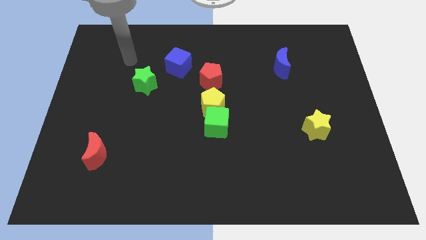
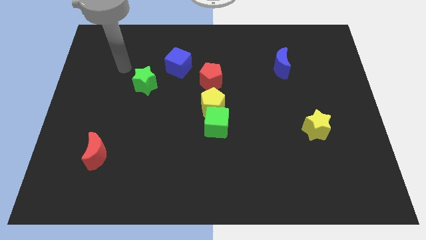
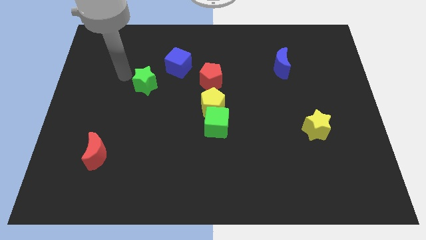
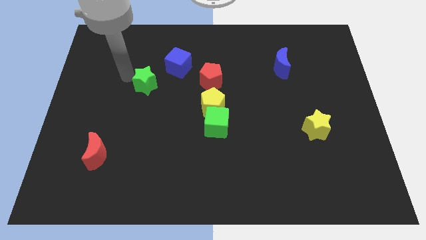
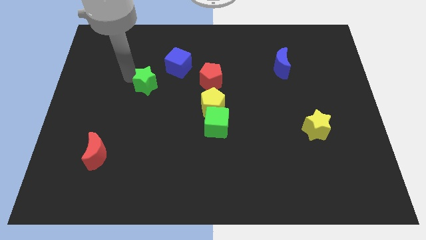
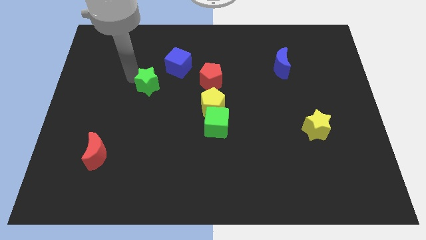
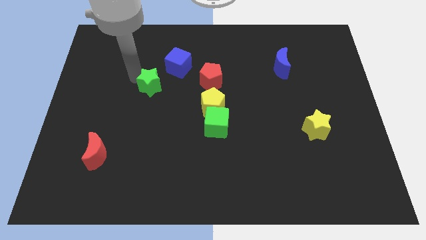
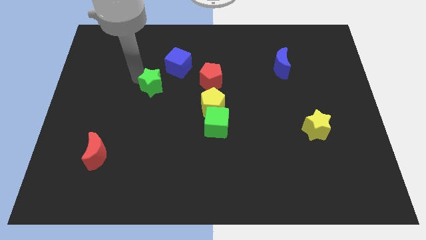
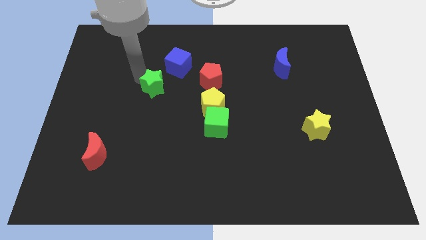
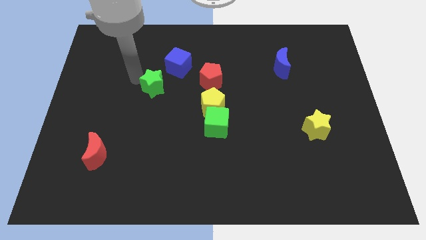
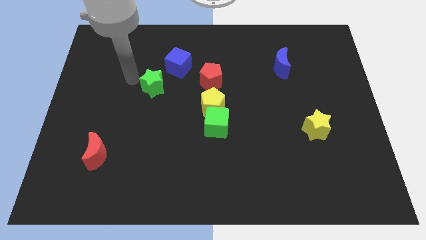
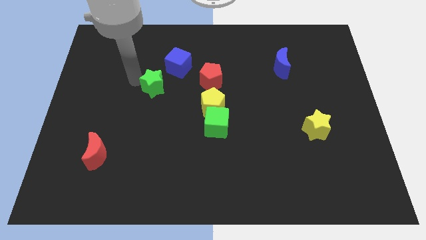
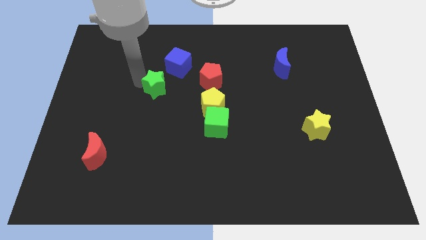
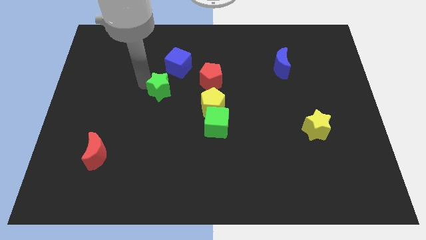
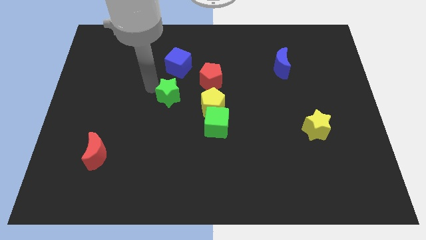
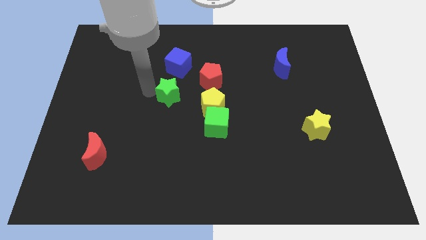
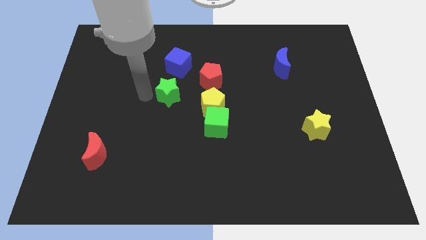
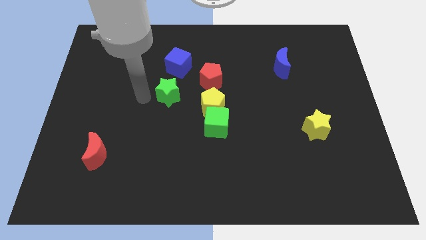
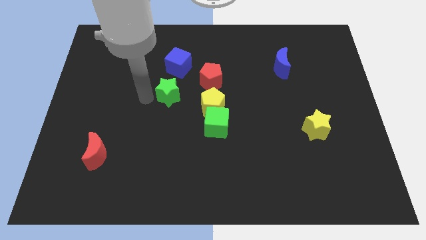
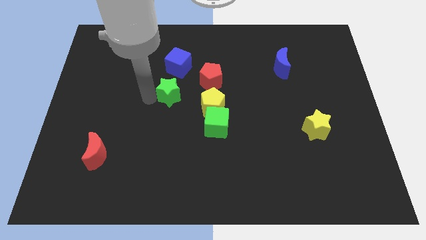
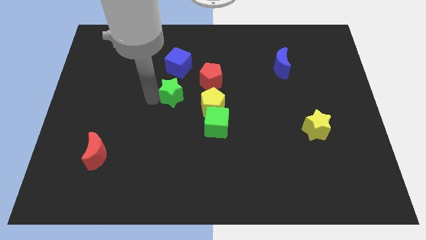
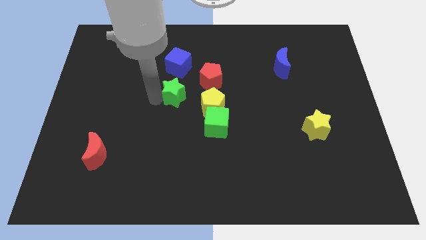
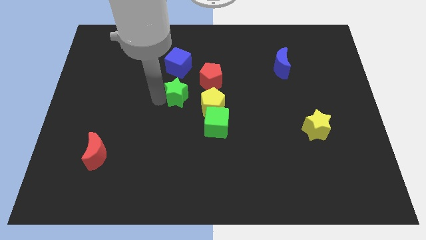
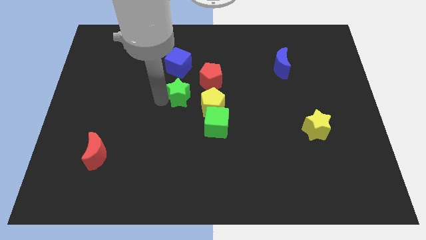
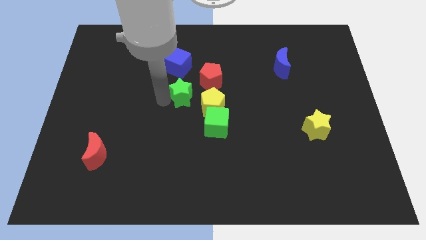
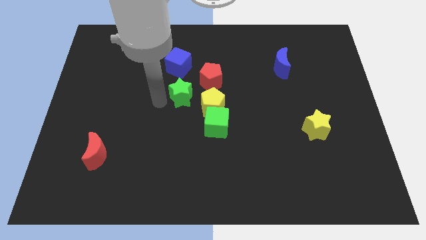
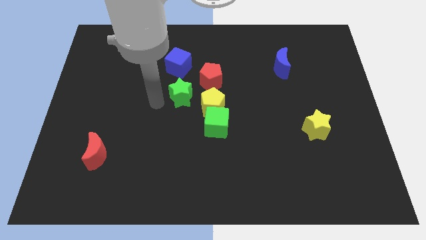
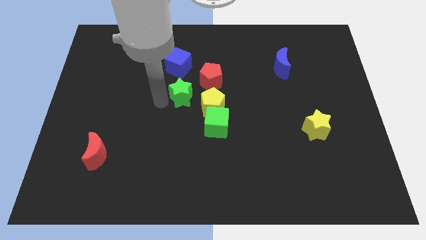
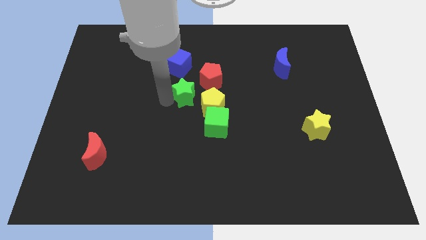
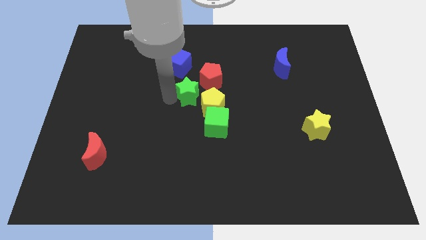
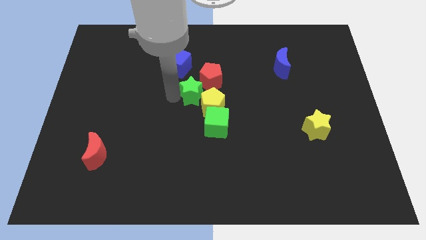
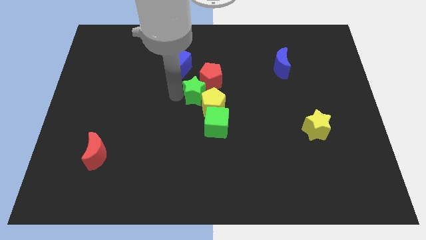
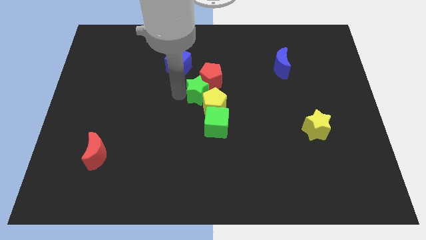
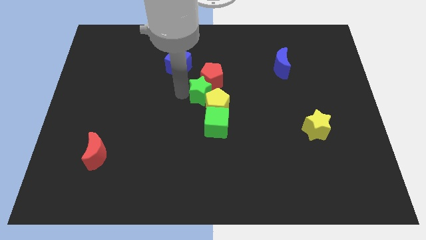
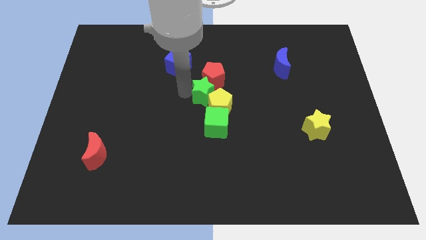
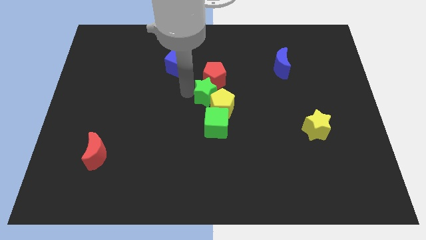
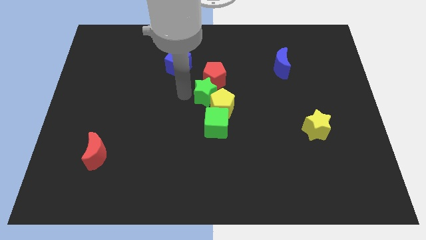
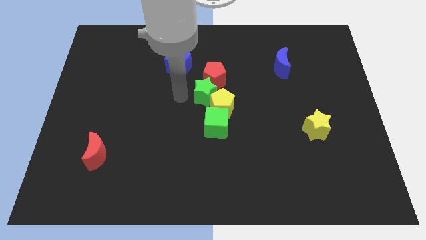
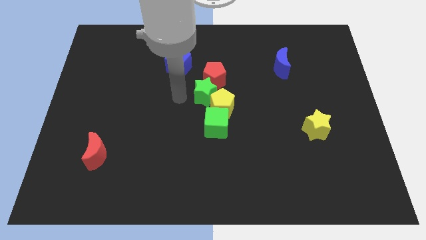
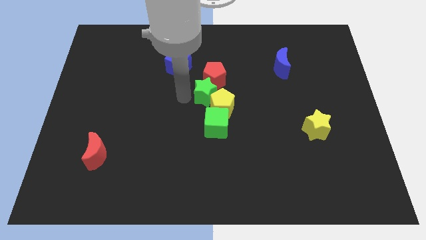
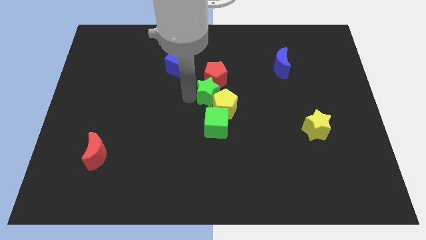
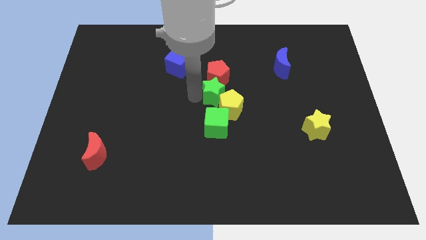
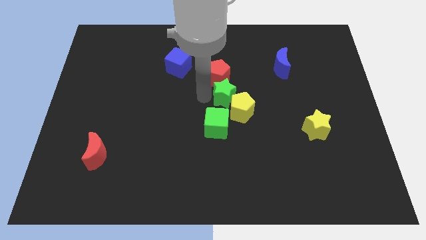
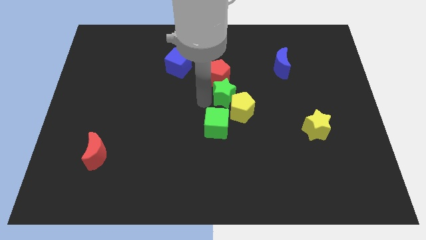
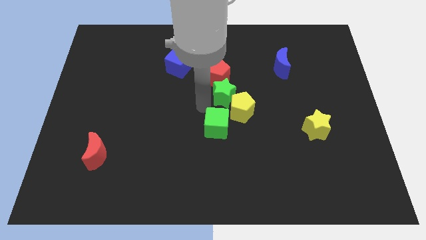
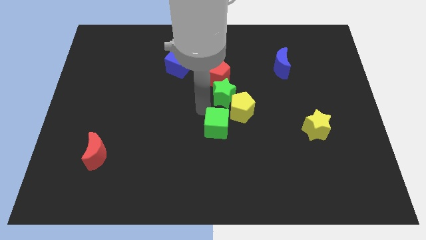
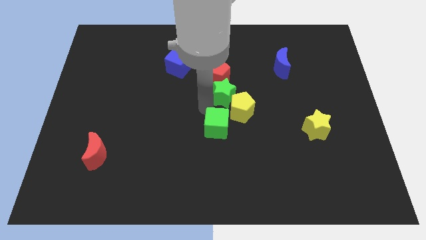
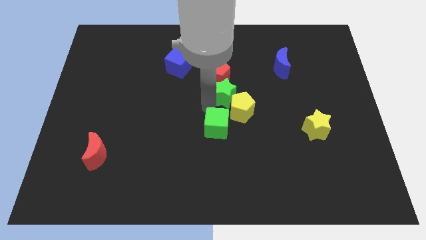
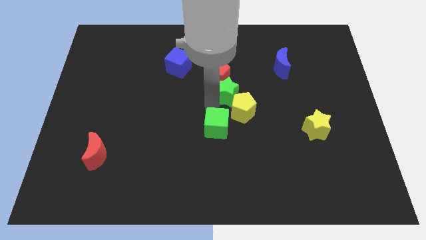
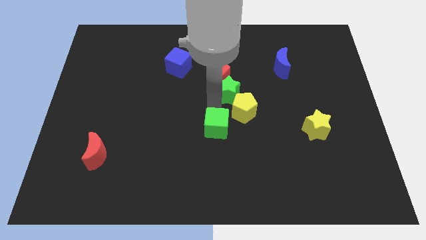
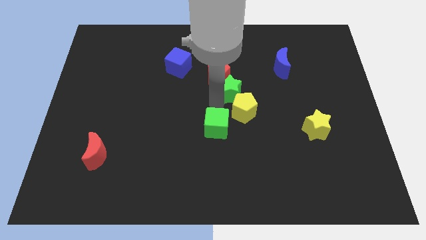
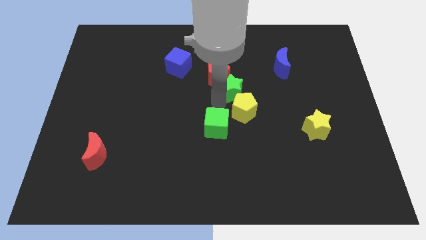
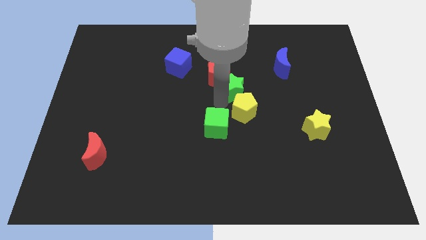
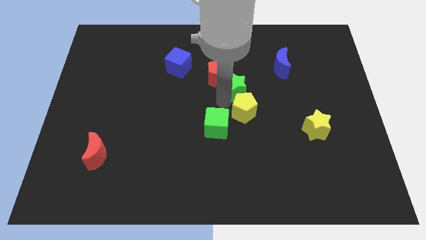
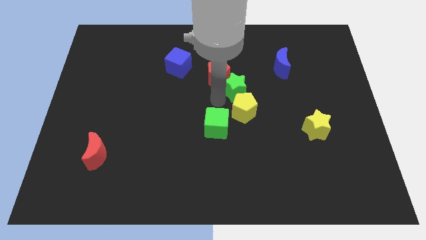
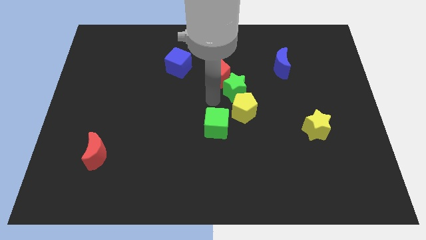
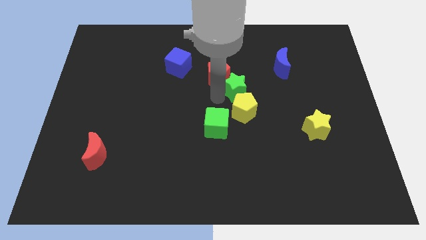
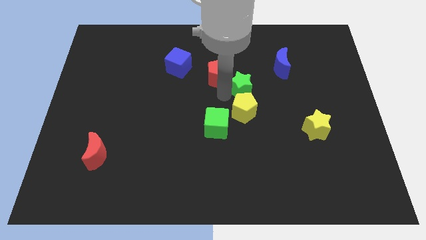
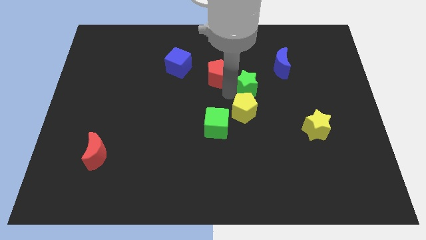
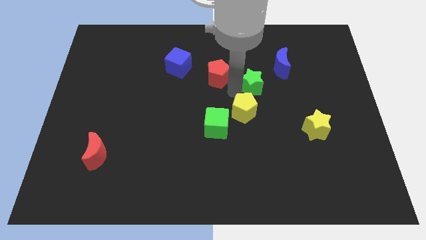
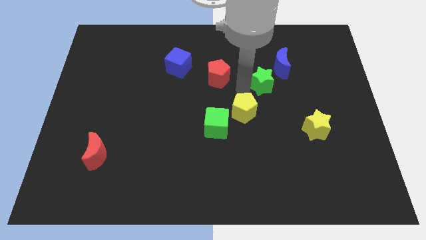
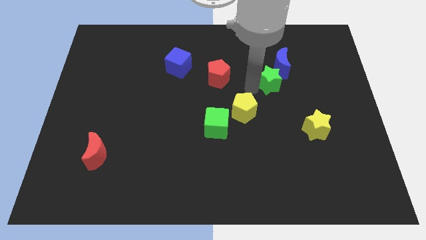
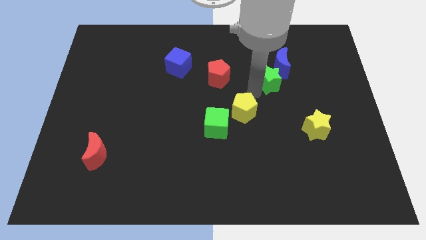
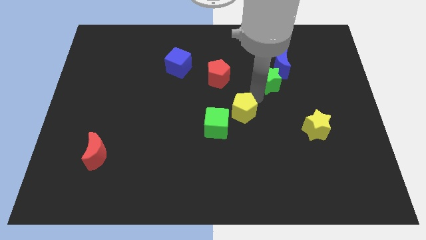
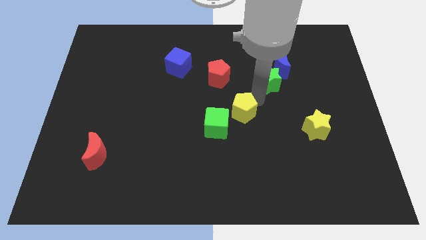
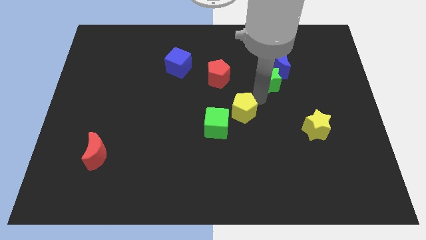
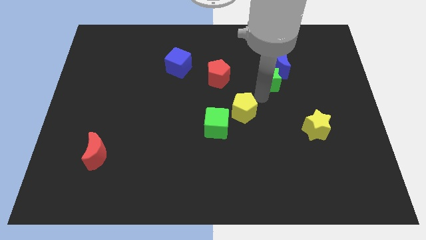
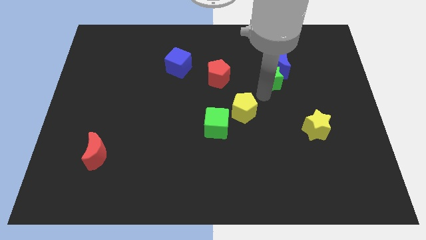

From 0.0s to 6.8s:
slide the green star towards the blue moon

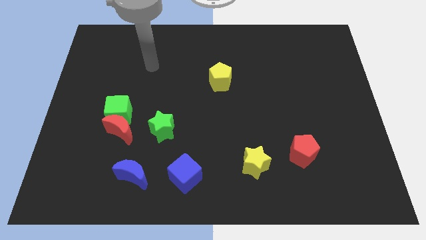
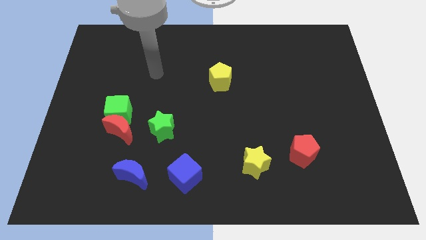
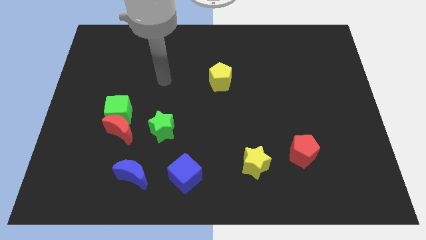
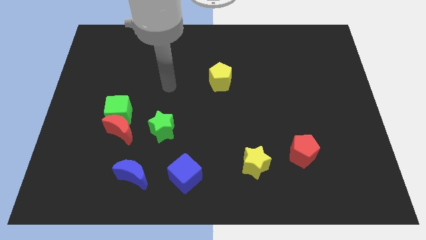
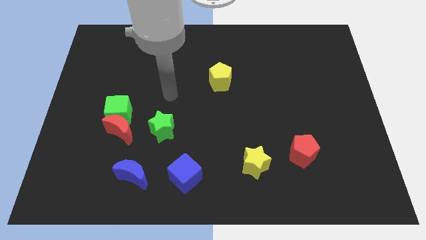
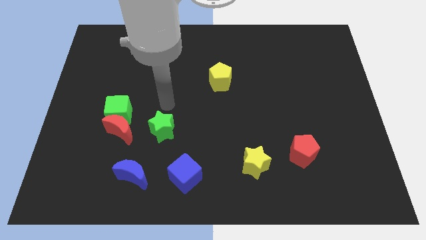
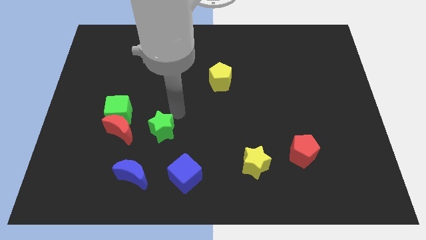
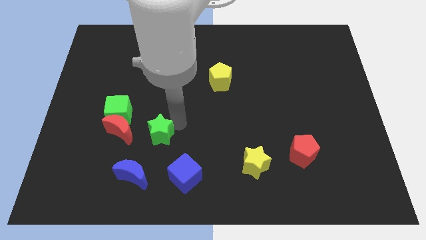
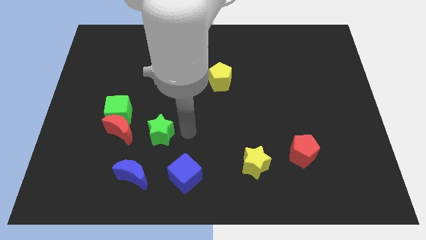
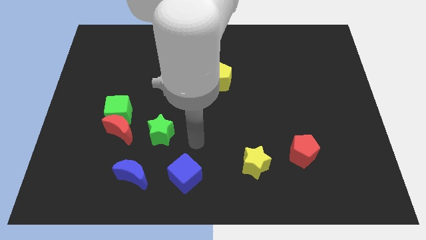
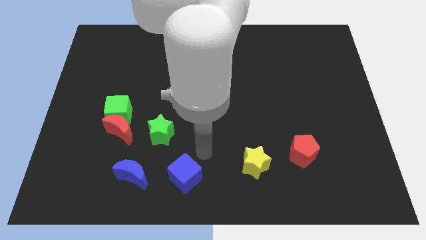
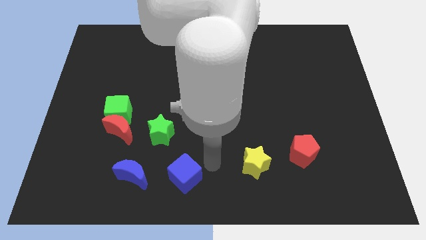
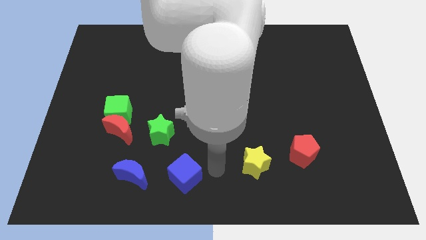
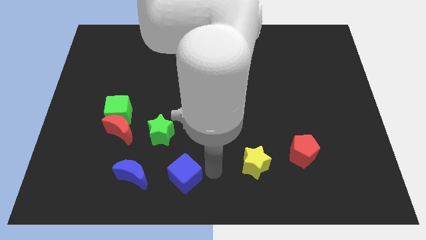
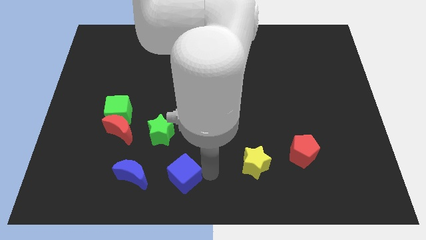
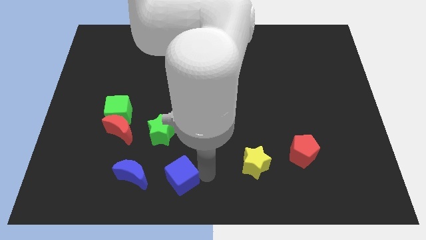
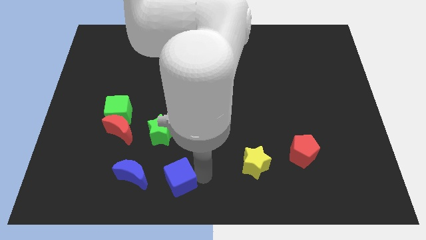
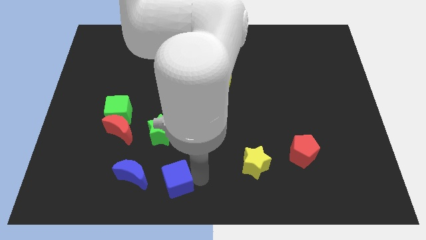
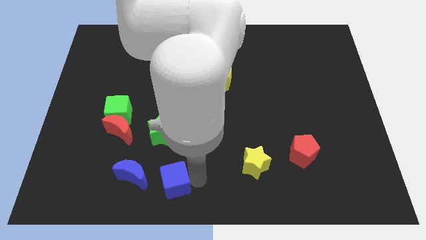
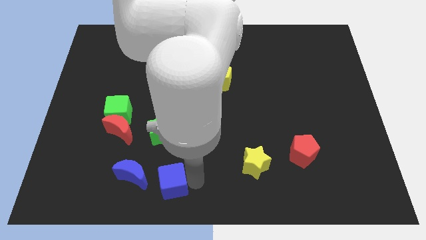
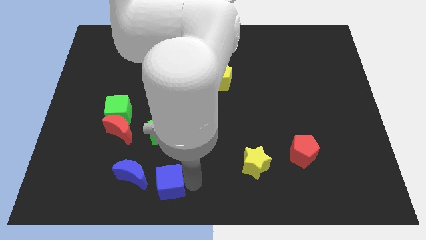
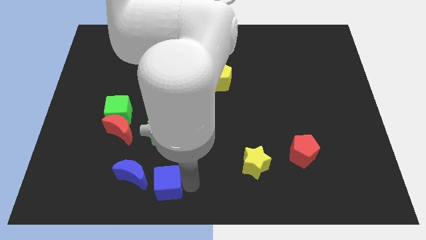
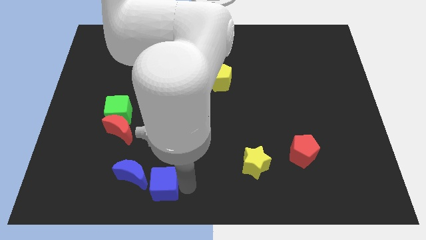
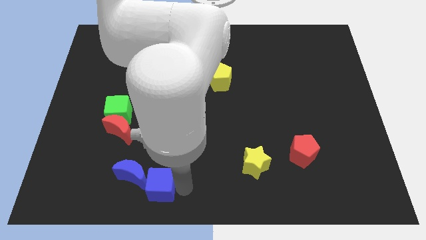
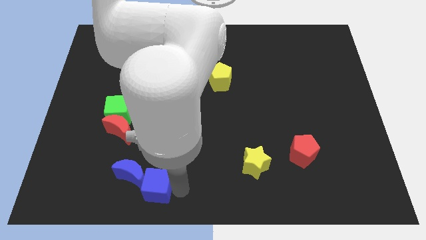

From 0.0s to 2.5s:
put the blue cube next to the blue moon
